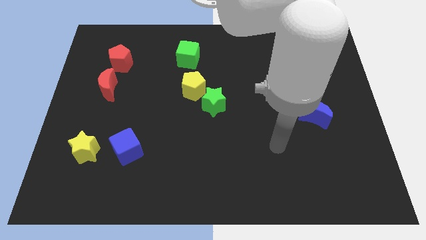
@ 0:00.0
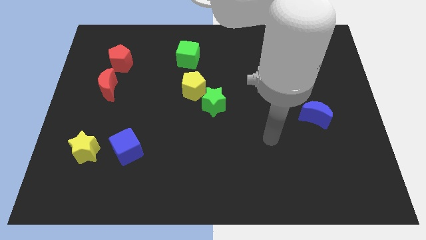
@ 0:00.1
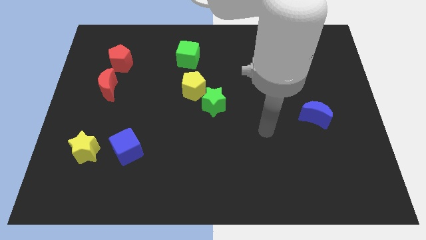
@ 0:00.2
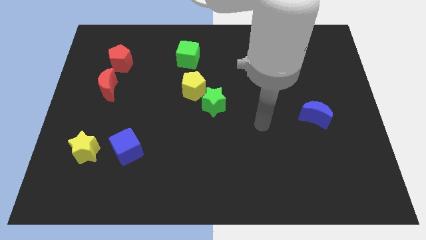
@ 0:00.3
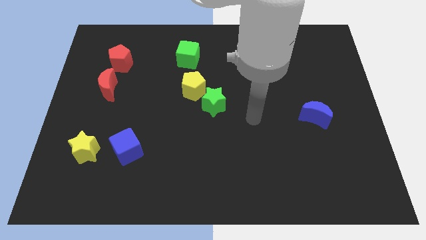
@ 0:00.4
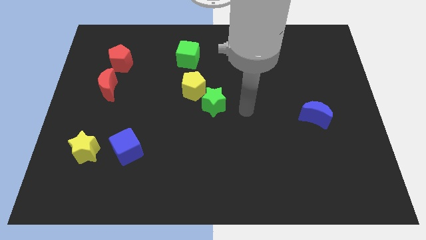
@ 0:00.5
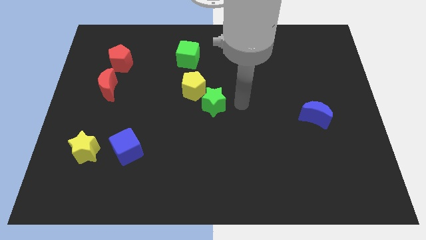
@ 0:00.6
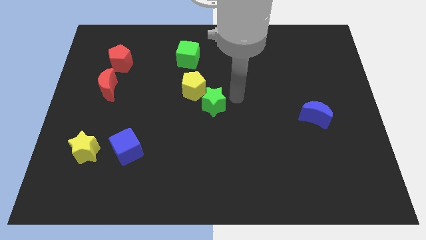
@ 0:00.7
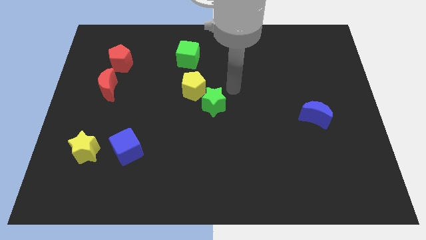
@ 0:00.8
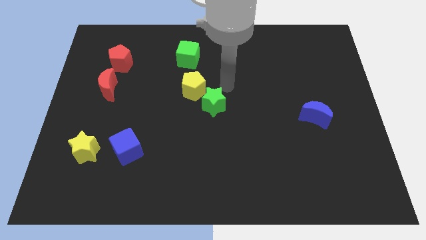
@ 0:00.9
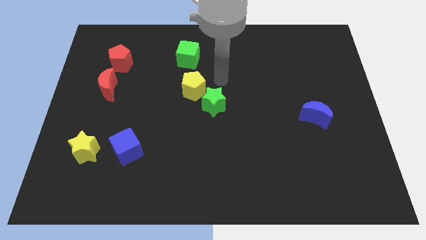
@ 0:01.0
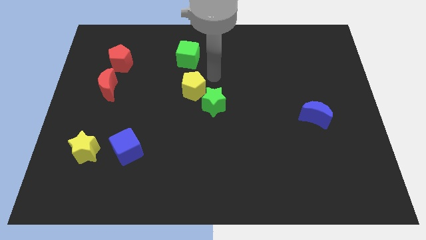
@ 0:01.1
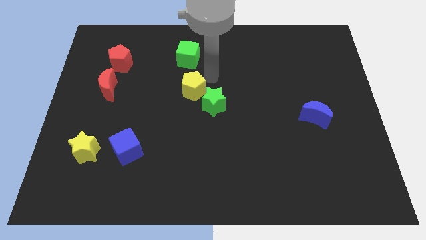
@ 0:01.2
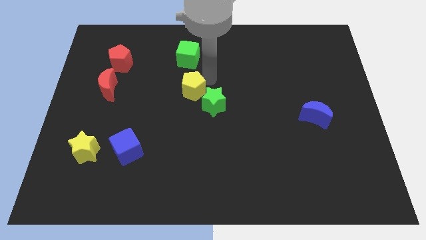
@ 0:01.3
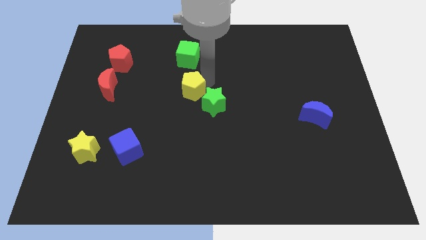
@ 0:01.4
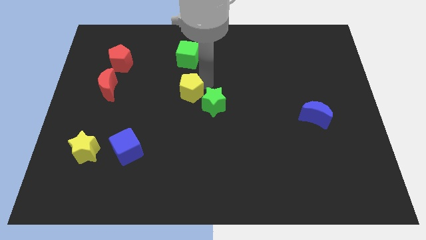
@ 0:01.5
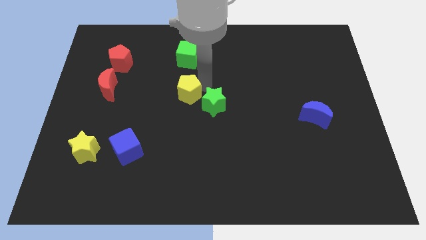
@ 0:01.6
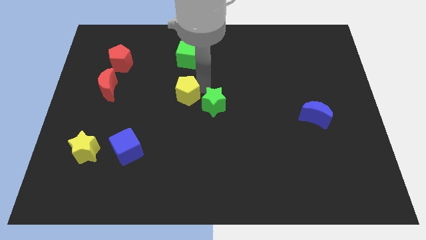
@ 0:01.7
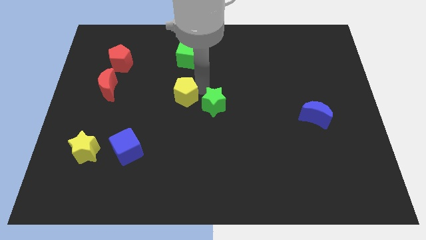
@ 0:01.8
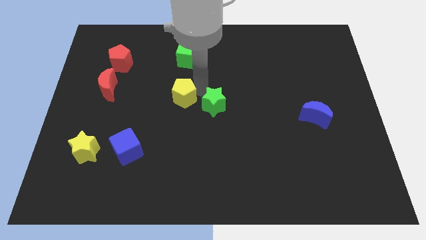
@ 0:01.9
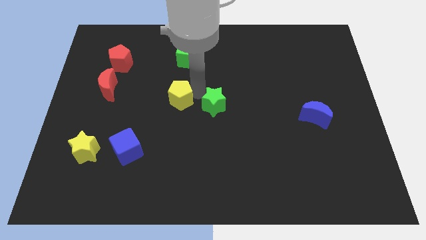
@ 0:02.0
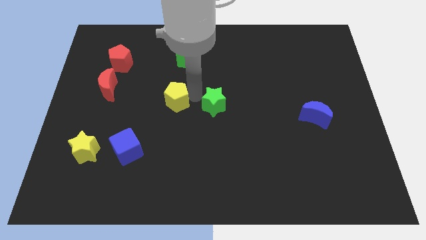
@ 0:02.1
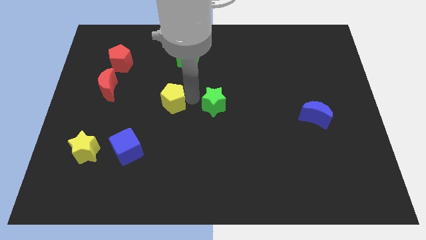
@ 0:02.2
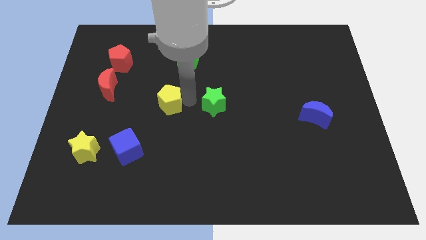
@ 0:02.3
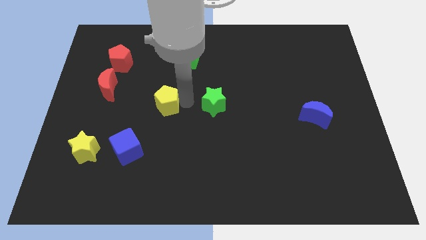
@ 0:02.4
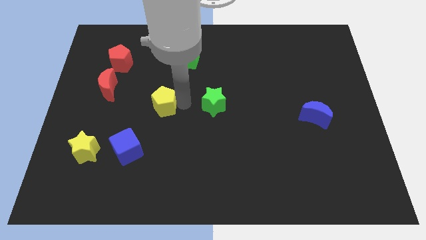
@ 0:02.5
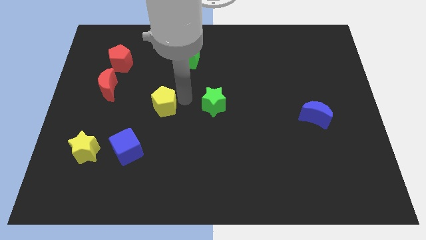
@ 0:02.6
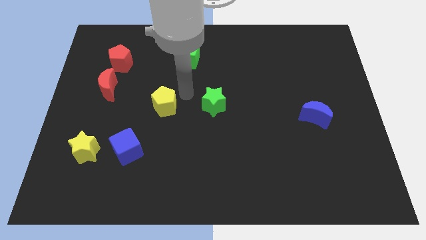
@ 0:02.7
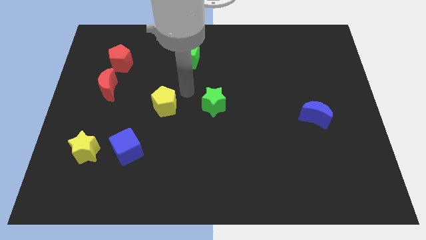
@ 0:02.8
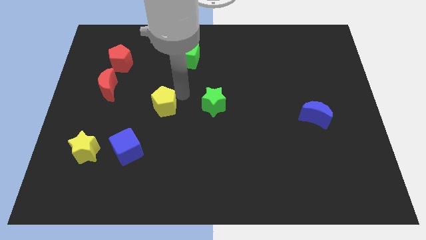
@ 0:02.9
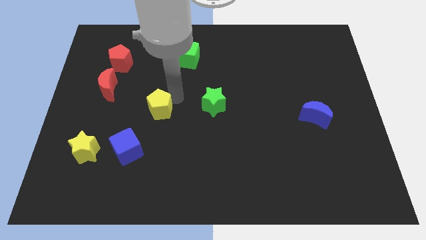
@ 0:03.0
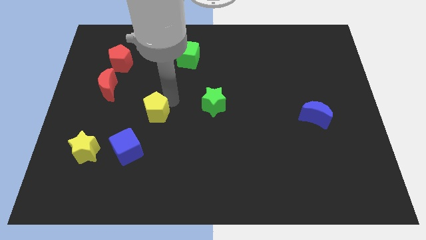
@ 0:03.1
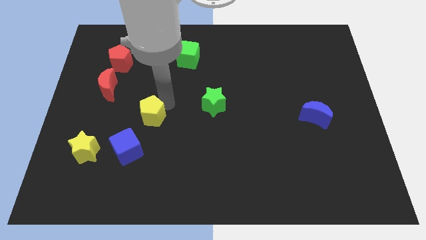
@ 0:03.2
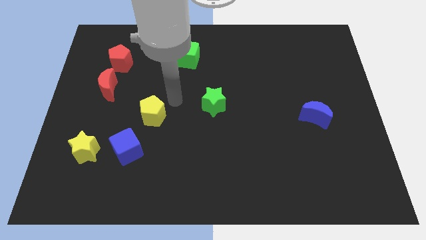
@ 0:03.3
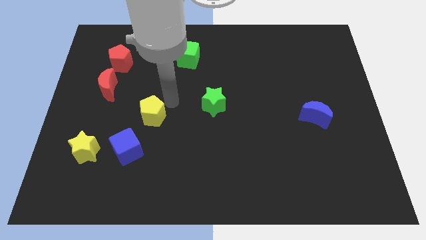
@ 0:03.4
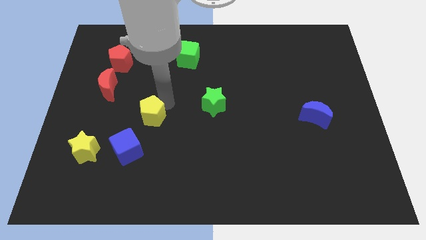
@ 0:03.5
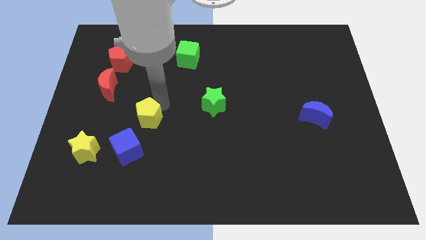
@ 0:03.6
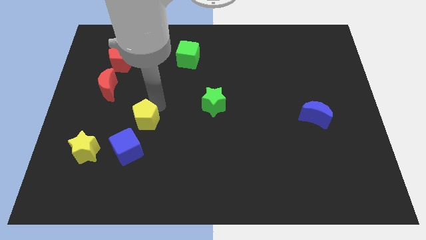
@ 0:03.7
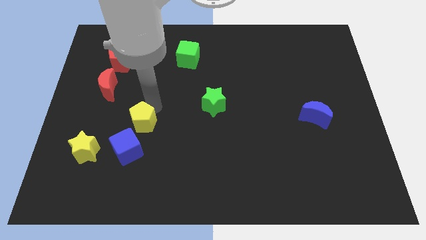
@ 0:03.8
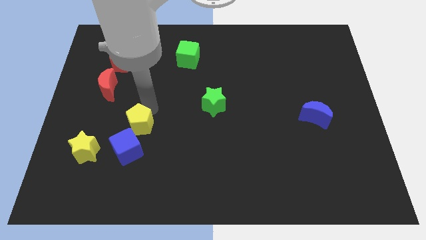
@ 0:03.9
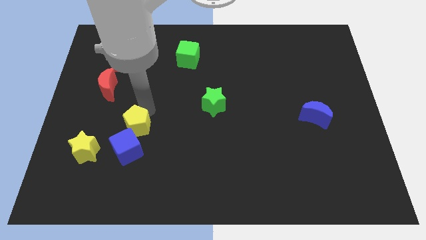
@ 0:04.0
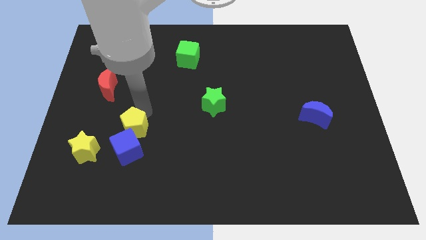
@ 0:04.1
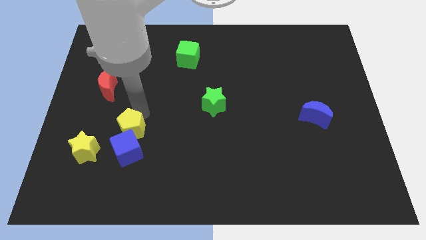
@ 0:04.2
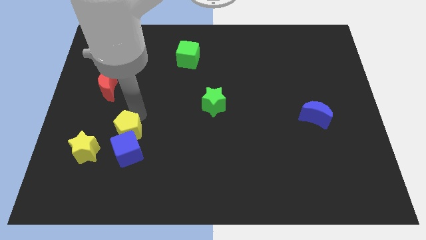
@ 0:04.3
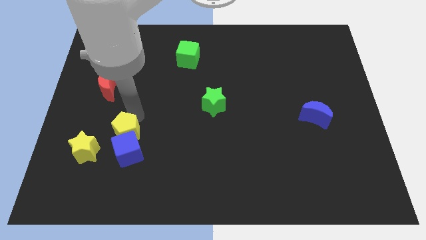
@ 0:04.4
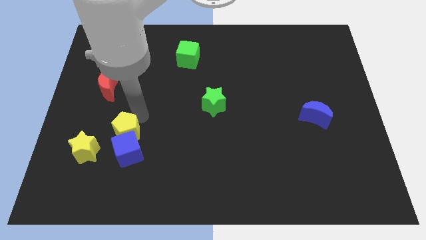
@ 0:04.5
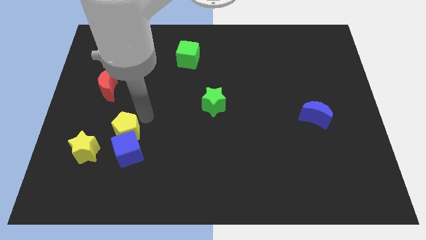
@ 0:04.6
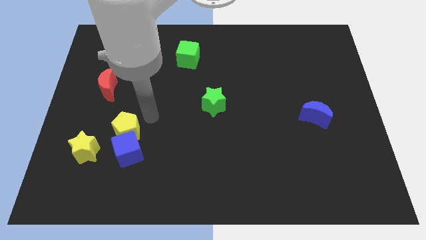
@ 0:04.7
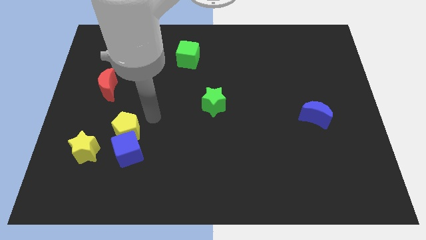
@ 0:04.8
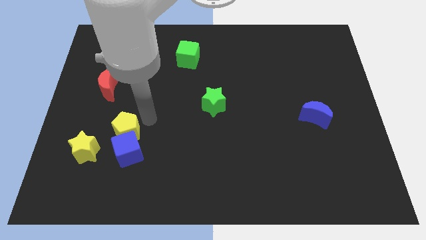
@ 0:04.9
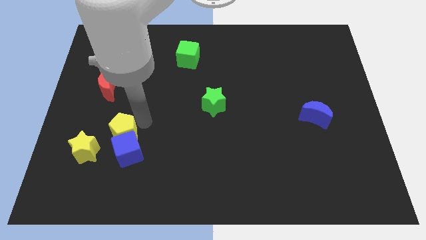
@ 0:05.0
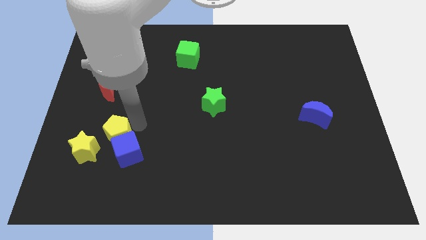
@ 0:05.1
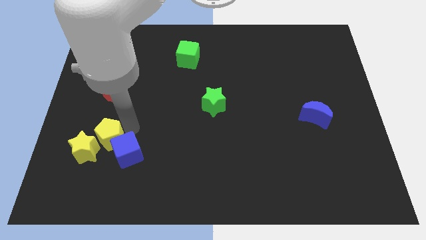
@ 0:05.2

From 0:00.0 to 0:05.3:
put the yellow pentagon next to the yellow star

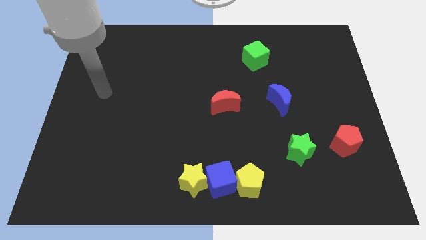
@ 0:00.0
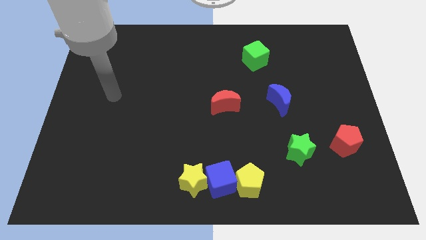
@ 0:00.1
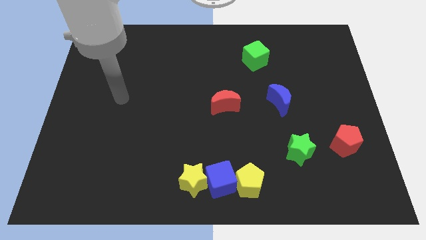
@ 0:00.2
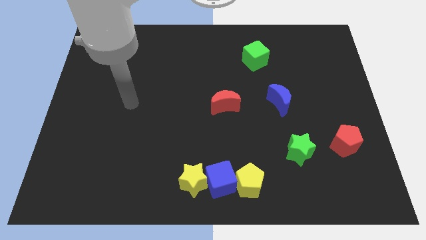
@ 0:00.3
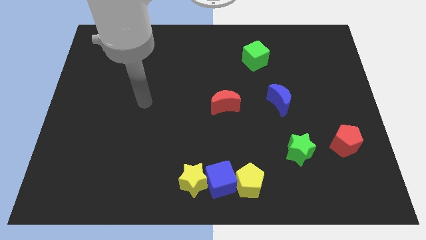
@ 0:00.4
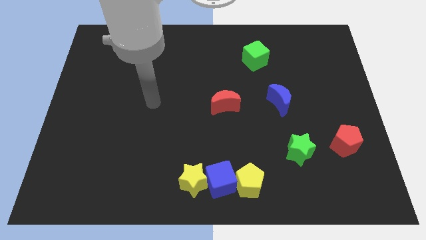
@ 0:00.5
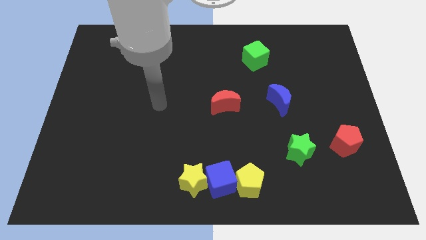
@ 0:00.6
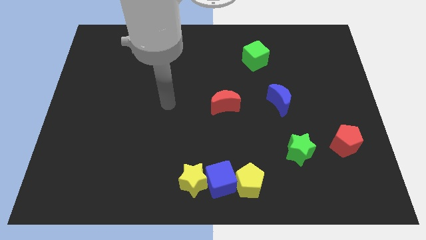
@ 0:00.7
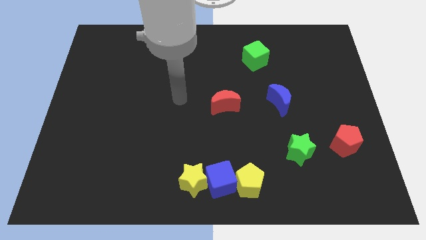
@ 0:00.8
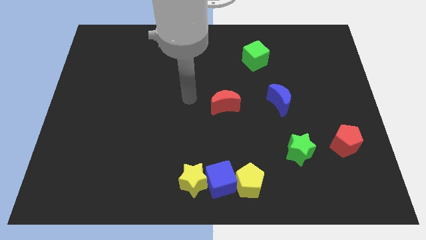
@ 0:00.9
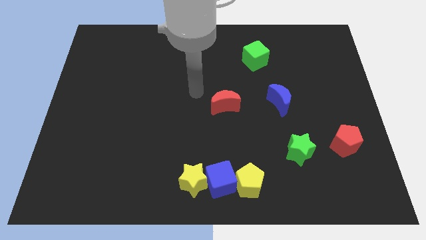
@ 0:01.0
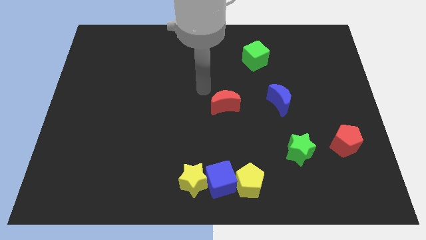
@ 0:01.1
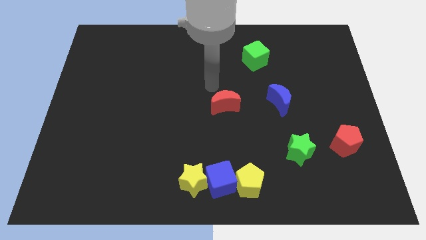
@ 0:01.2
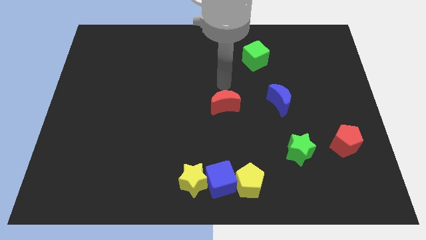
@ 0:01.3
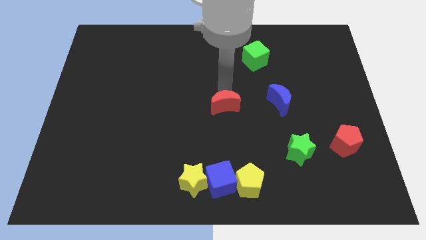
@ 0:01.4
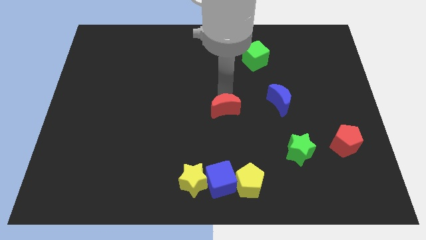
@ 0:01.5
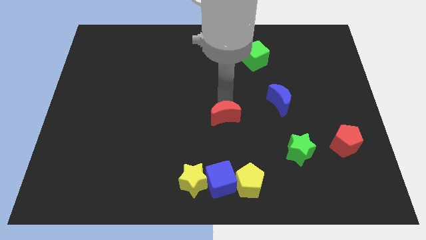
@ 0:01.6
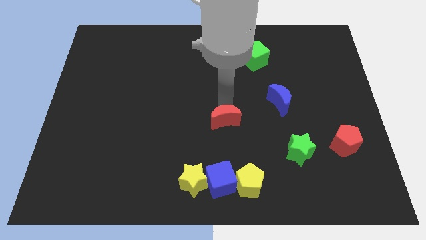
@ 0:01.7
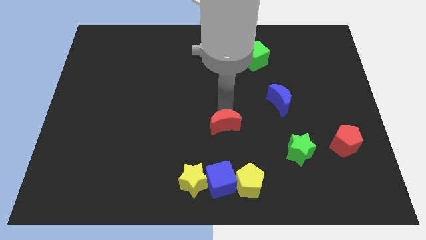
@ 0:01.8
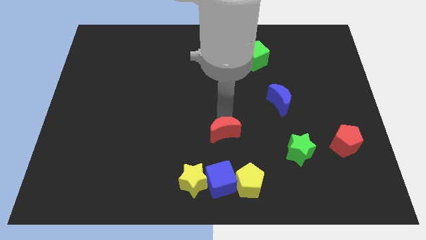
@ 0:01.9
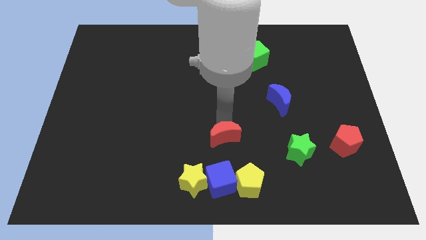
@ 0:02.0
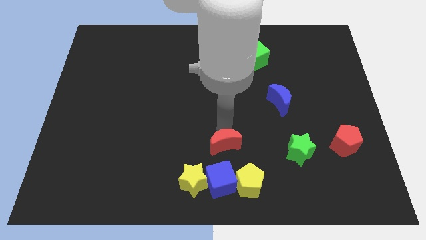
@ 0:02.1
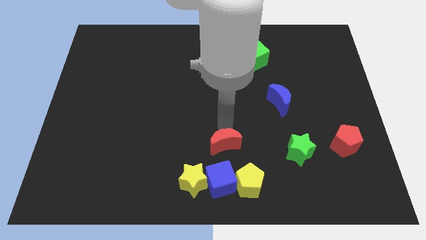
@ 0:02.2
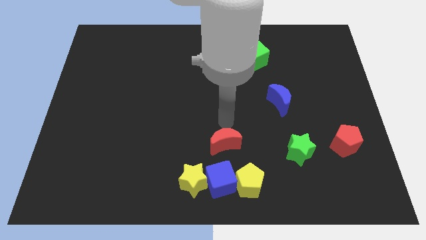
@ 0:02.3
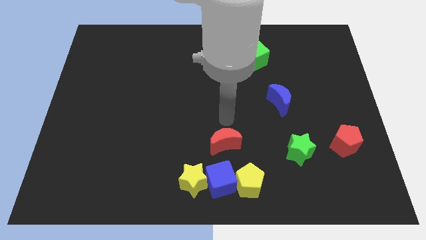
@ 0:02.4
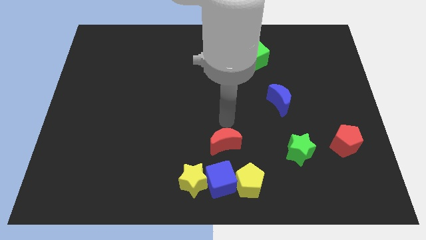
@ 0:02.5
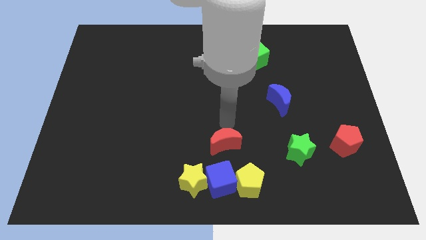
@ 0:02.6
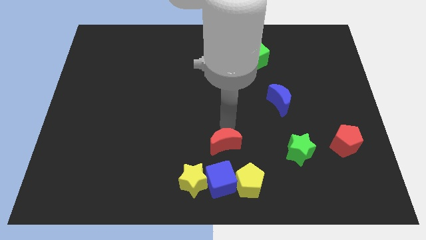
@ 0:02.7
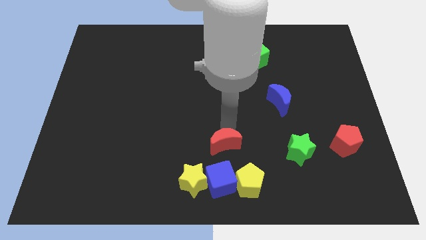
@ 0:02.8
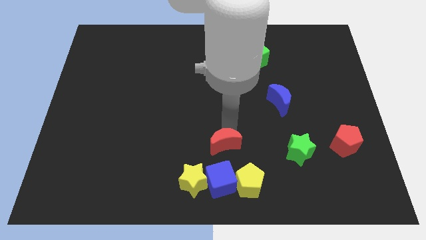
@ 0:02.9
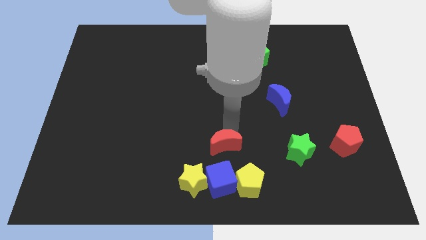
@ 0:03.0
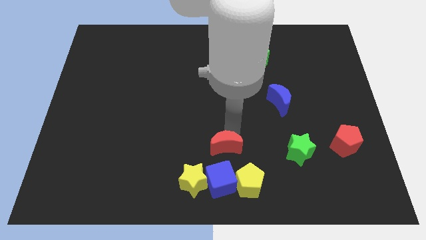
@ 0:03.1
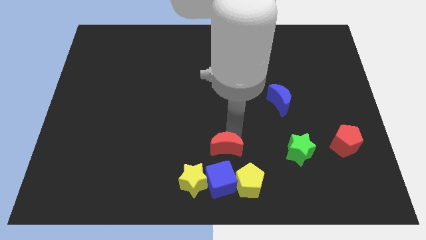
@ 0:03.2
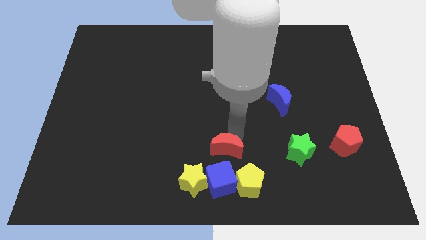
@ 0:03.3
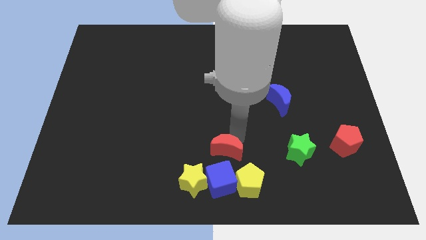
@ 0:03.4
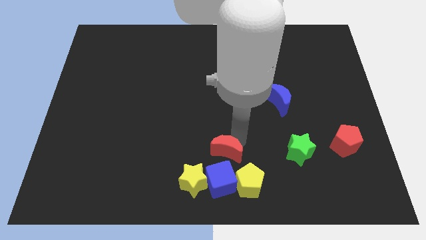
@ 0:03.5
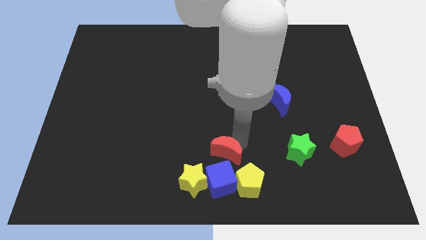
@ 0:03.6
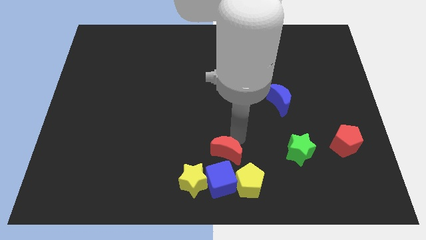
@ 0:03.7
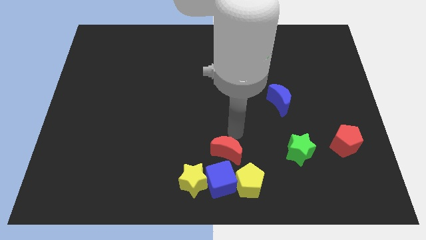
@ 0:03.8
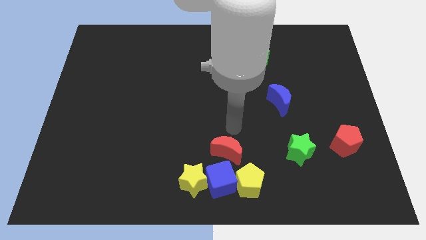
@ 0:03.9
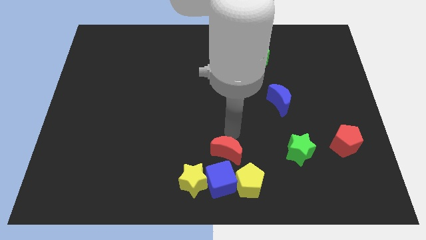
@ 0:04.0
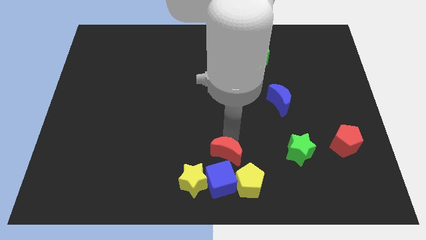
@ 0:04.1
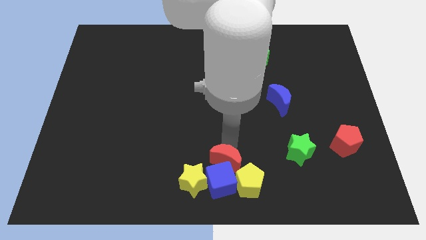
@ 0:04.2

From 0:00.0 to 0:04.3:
move the red moon towards the blue cube
